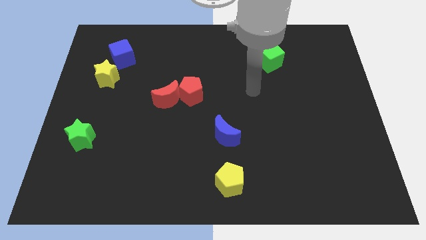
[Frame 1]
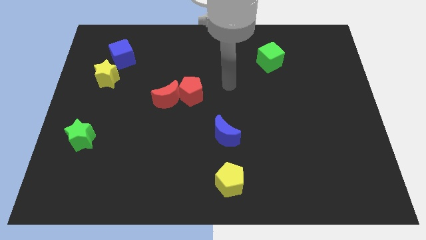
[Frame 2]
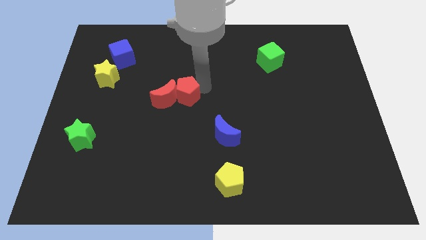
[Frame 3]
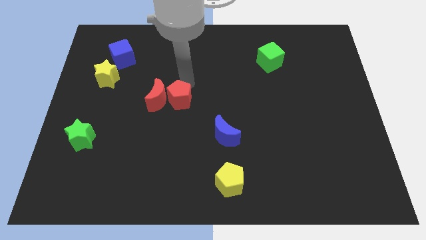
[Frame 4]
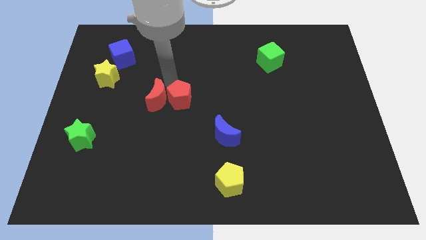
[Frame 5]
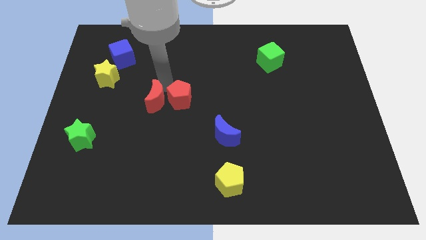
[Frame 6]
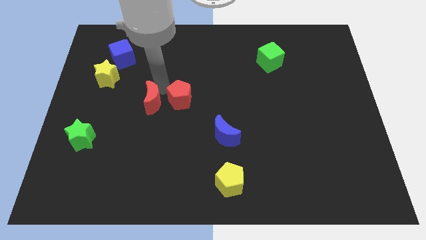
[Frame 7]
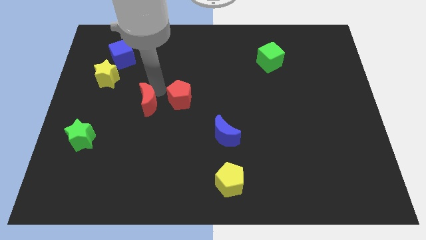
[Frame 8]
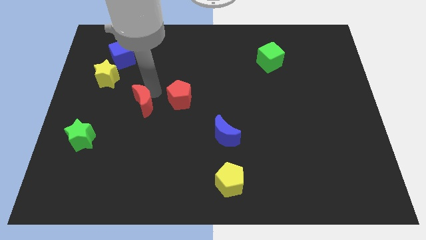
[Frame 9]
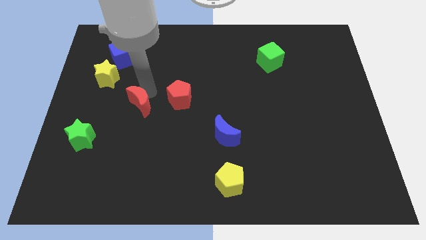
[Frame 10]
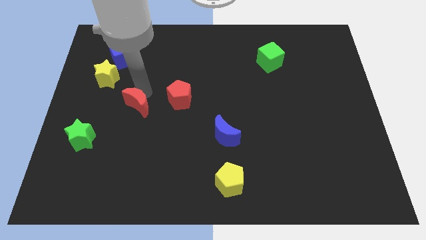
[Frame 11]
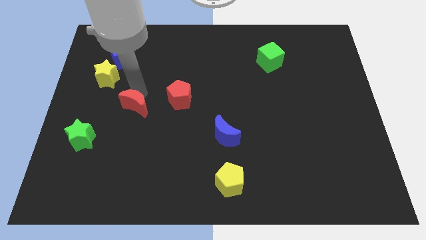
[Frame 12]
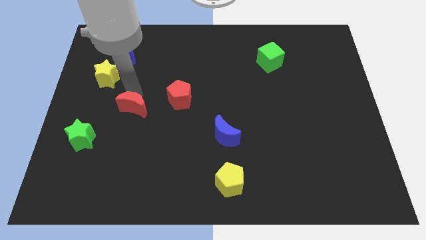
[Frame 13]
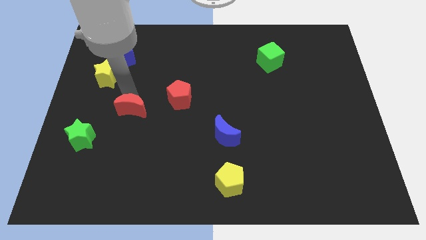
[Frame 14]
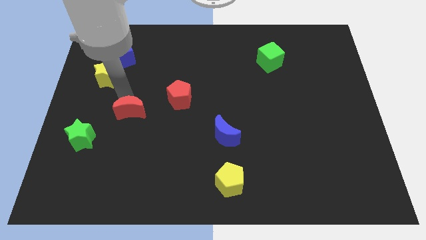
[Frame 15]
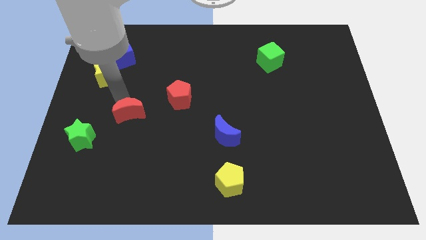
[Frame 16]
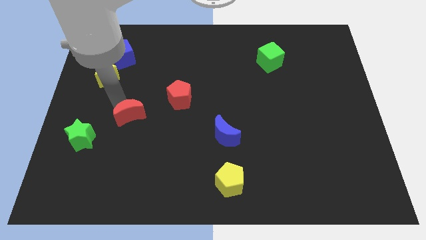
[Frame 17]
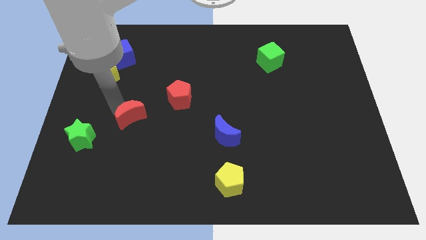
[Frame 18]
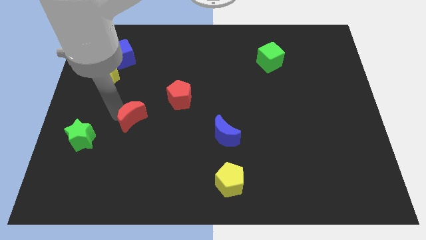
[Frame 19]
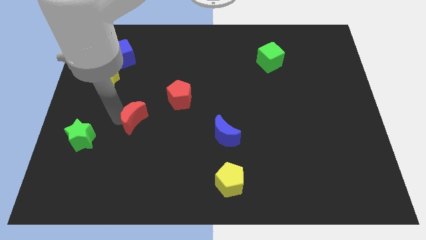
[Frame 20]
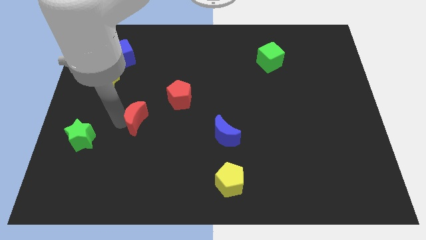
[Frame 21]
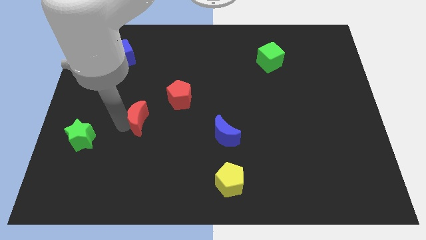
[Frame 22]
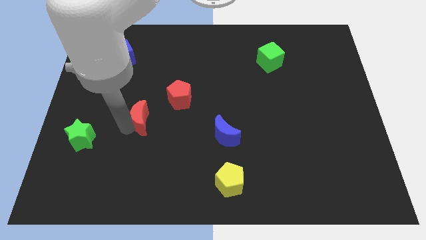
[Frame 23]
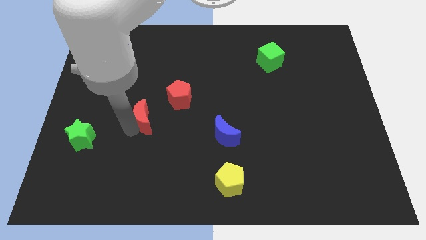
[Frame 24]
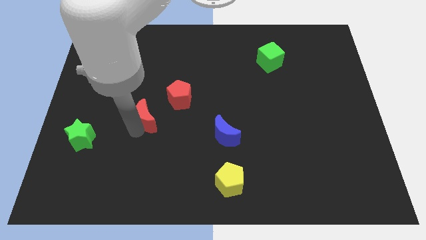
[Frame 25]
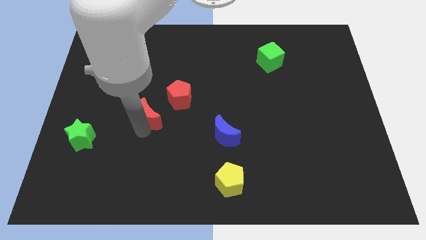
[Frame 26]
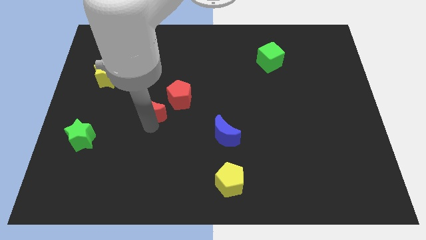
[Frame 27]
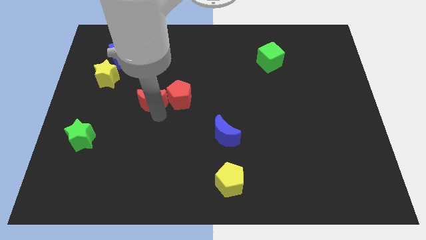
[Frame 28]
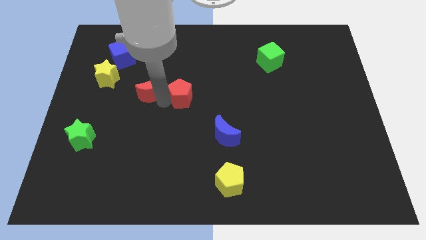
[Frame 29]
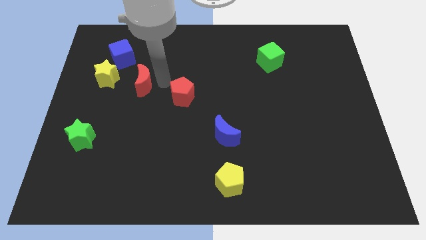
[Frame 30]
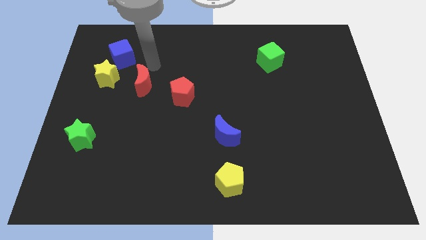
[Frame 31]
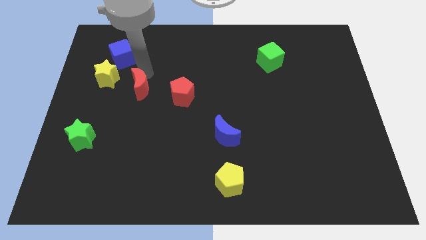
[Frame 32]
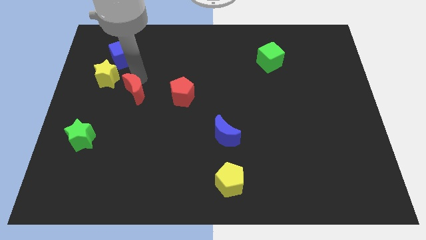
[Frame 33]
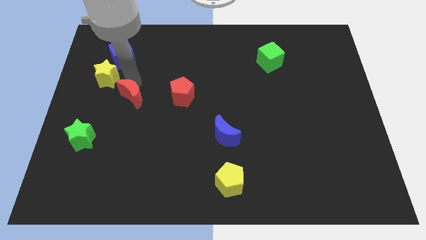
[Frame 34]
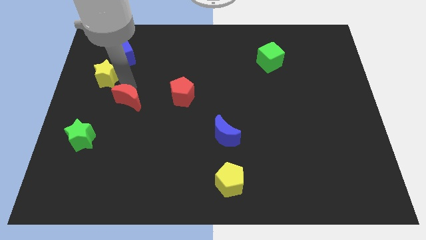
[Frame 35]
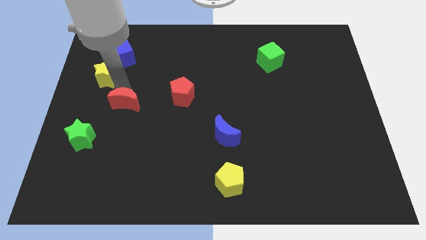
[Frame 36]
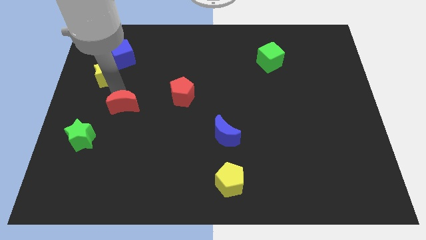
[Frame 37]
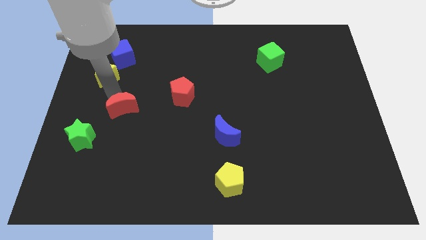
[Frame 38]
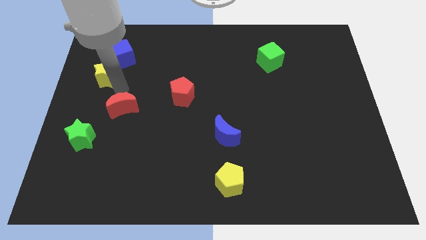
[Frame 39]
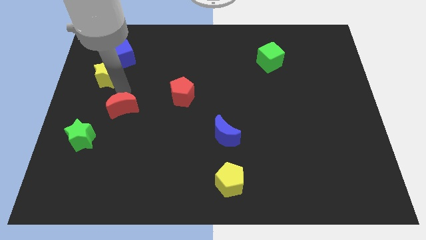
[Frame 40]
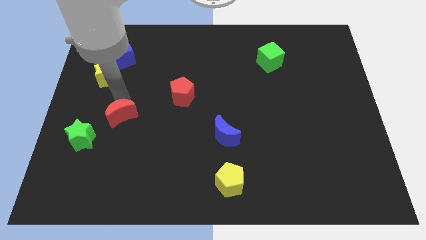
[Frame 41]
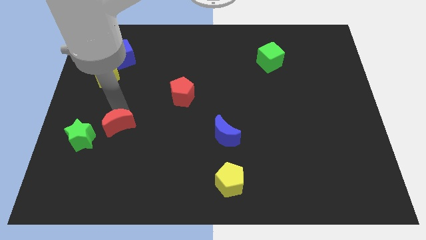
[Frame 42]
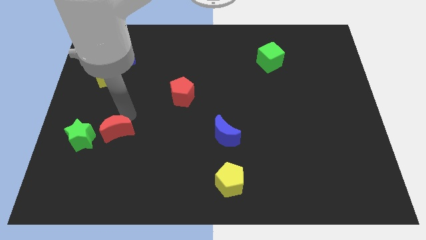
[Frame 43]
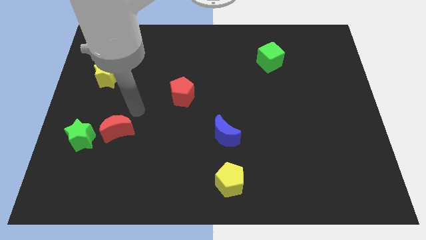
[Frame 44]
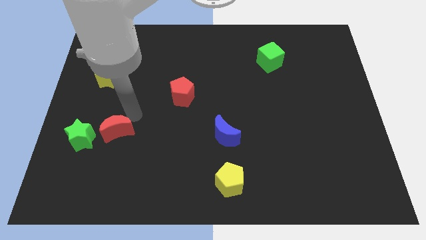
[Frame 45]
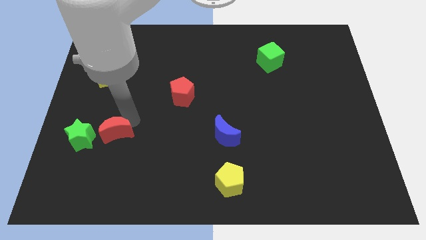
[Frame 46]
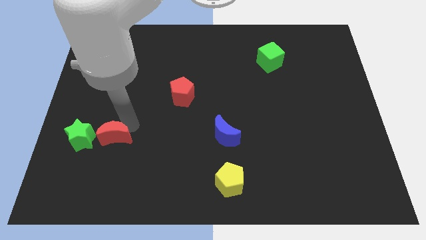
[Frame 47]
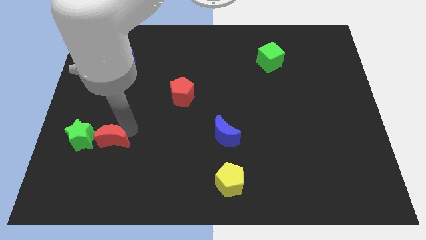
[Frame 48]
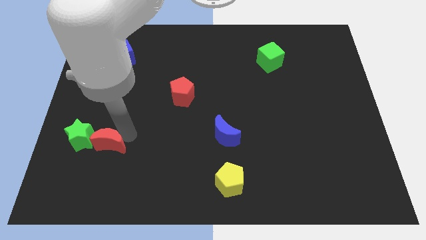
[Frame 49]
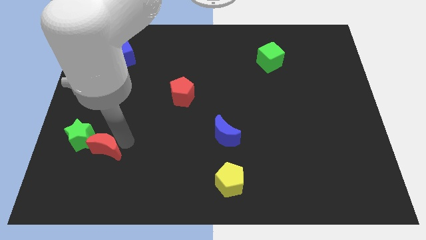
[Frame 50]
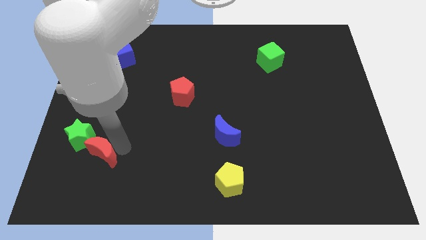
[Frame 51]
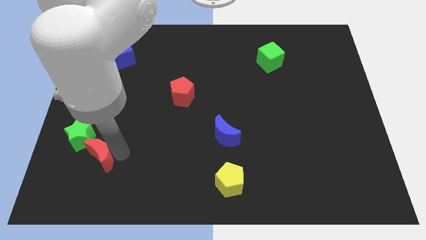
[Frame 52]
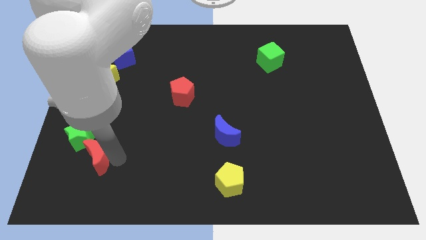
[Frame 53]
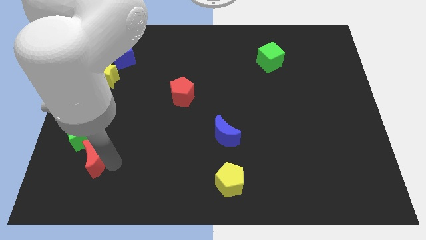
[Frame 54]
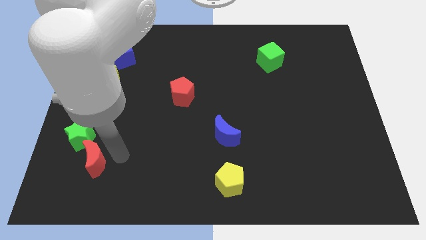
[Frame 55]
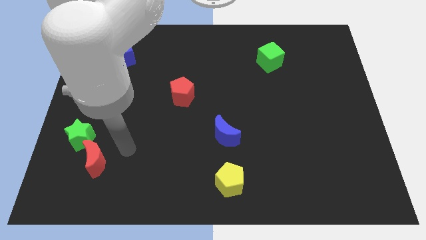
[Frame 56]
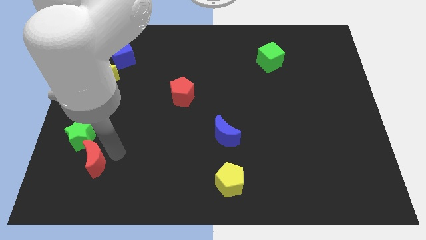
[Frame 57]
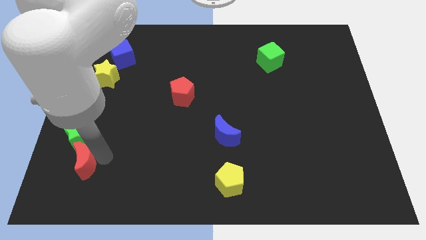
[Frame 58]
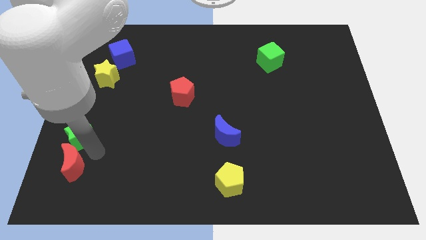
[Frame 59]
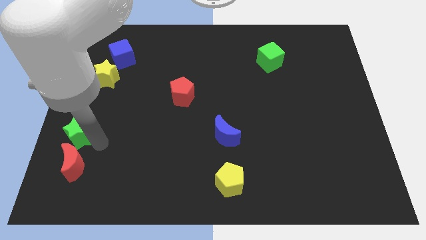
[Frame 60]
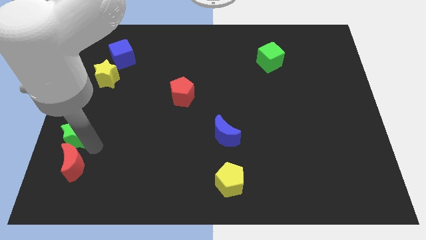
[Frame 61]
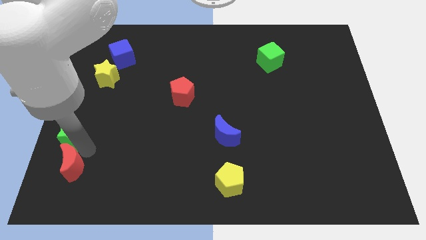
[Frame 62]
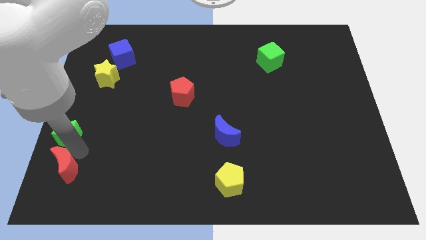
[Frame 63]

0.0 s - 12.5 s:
put the red moon to the bottom left corner

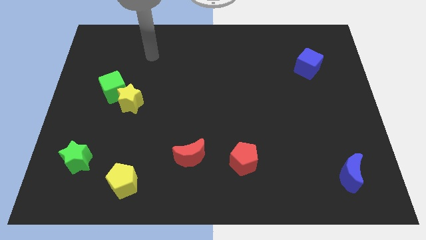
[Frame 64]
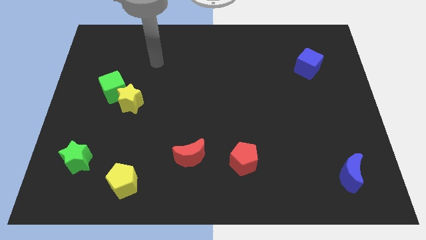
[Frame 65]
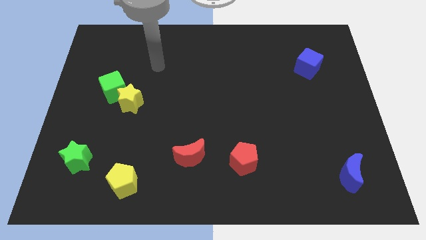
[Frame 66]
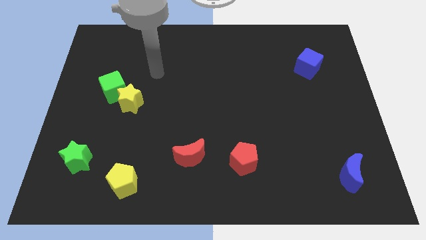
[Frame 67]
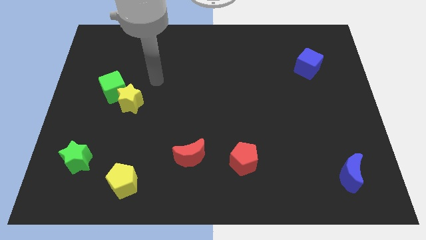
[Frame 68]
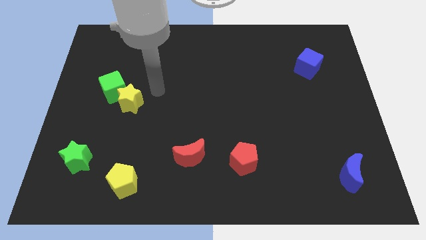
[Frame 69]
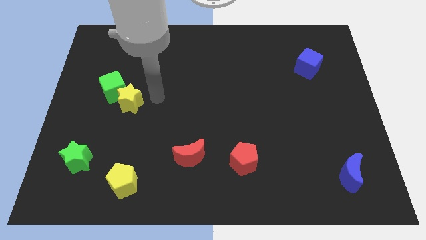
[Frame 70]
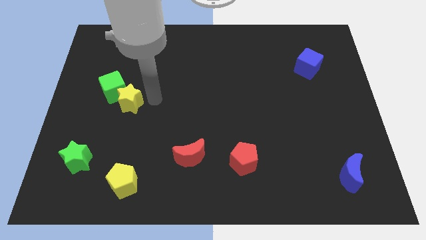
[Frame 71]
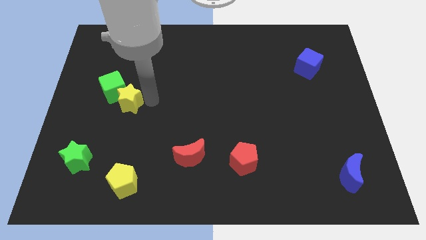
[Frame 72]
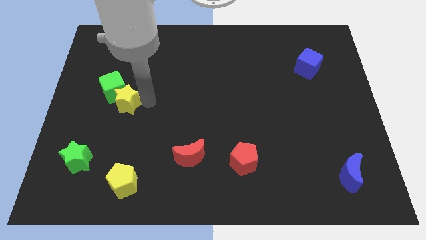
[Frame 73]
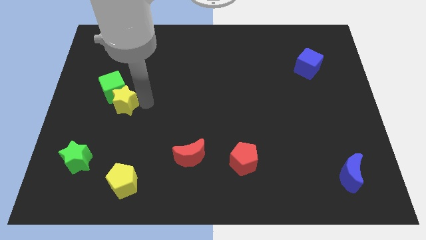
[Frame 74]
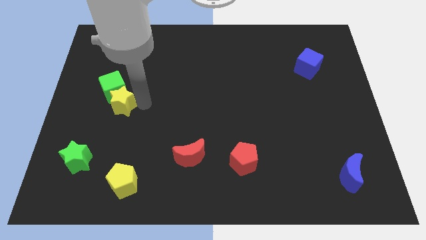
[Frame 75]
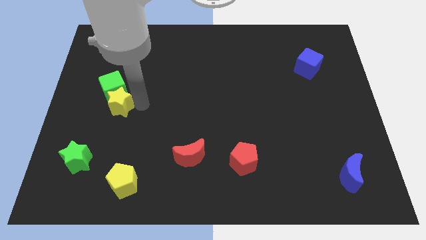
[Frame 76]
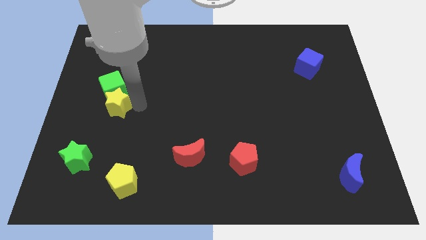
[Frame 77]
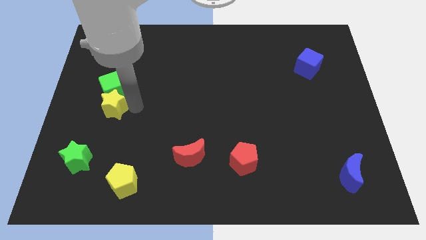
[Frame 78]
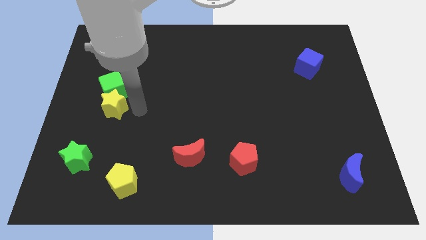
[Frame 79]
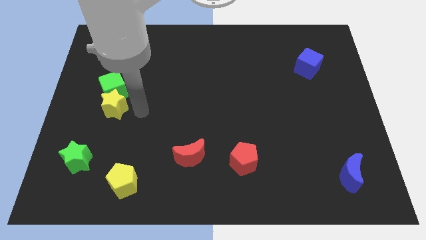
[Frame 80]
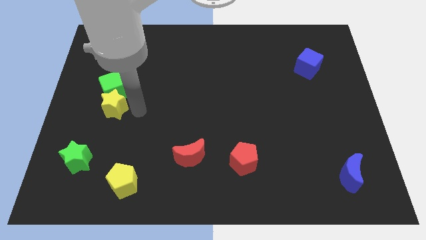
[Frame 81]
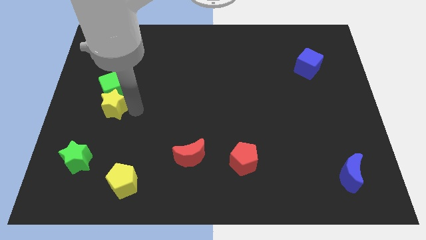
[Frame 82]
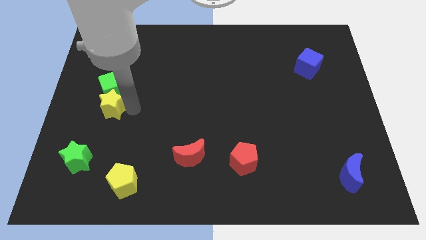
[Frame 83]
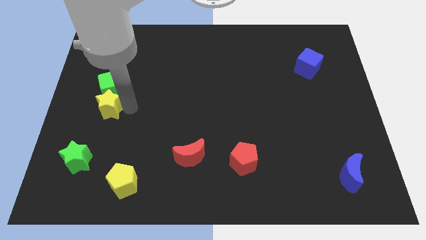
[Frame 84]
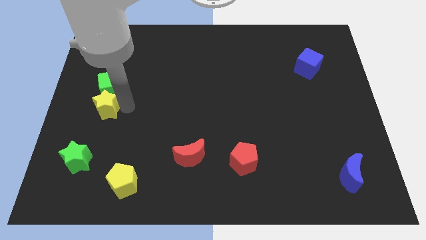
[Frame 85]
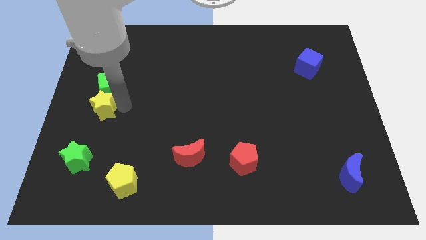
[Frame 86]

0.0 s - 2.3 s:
slide the yellow star to the left side of the board

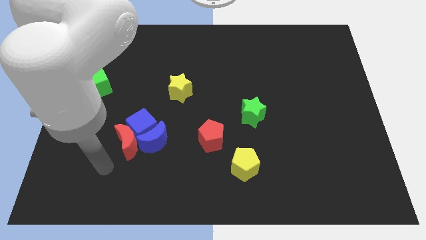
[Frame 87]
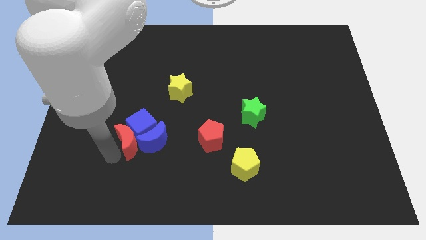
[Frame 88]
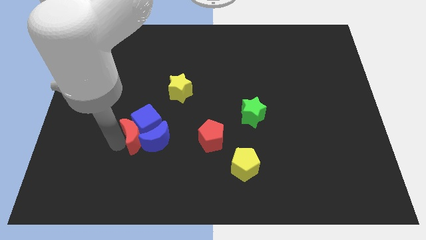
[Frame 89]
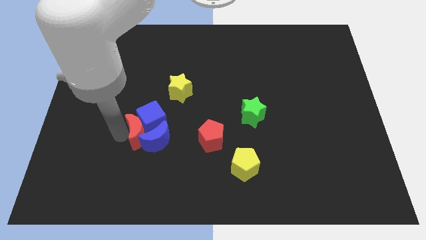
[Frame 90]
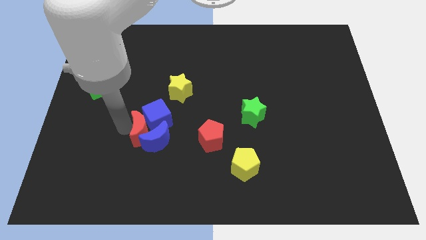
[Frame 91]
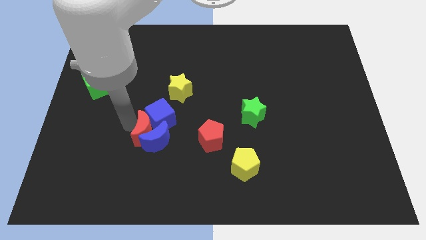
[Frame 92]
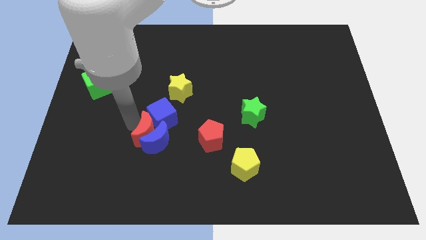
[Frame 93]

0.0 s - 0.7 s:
slide the blue cube to the middle of the board
